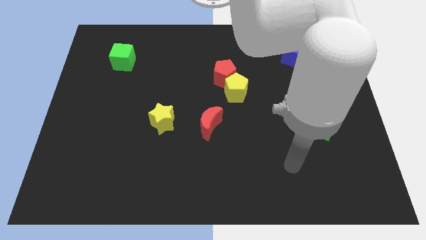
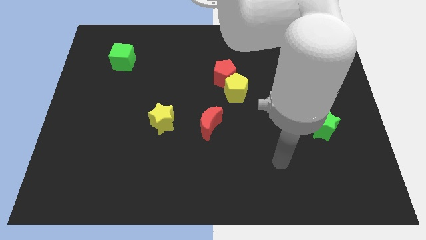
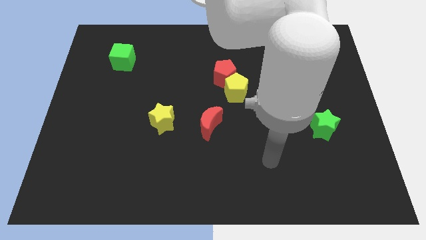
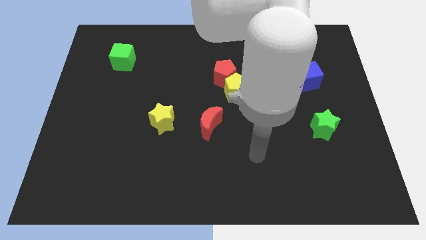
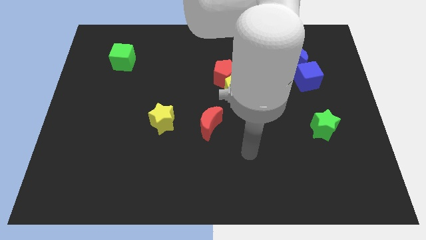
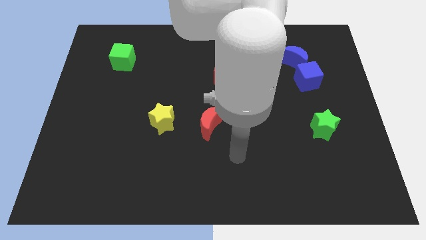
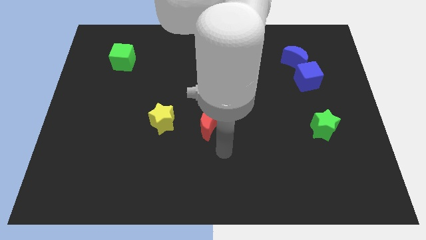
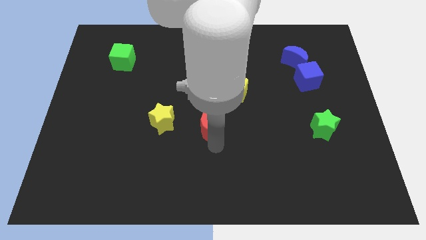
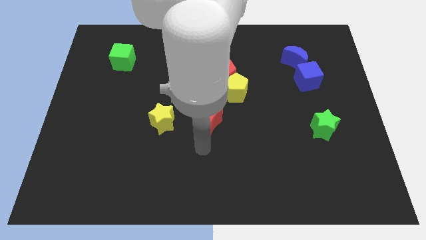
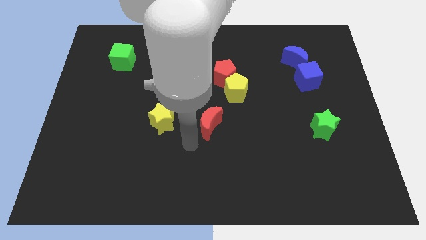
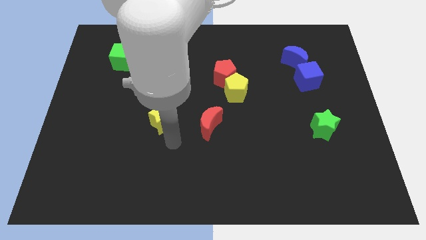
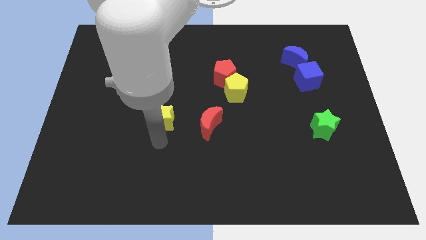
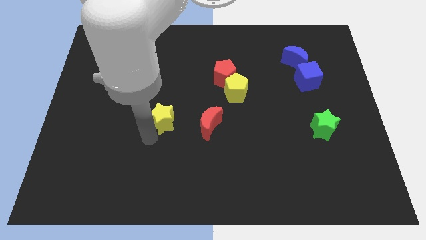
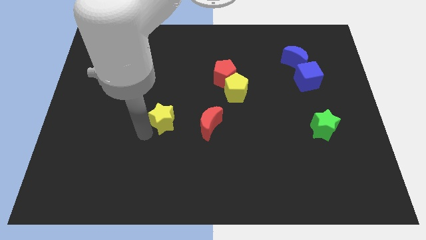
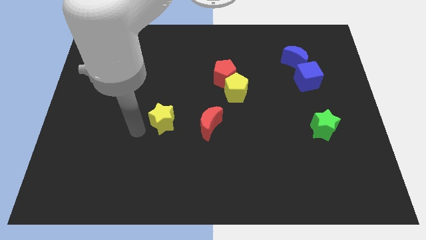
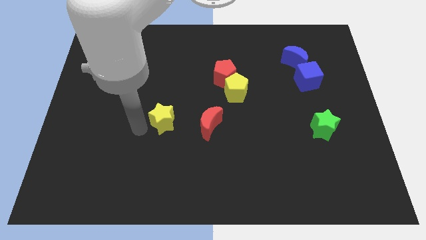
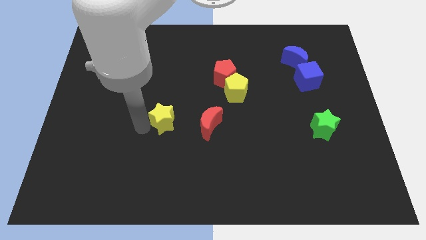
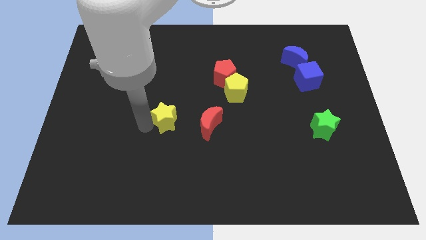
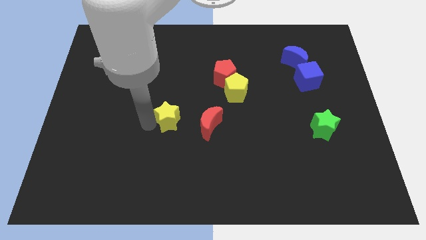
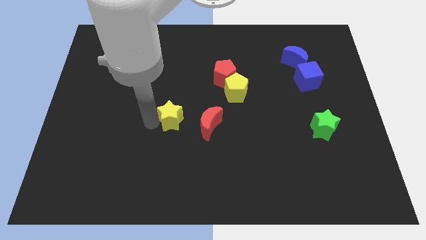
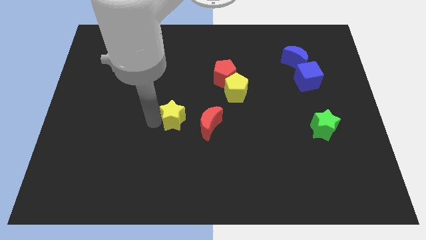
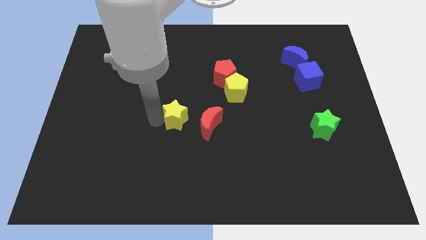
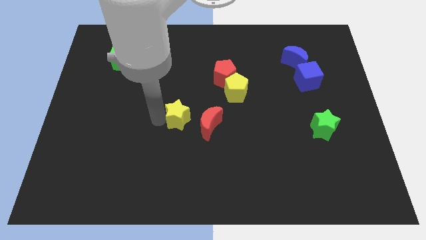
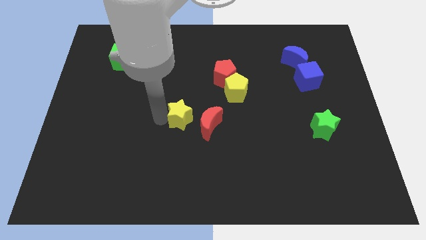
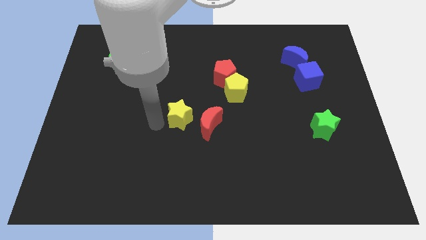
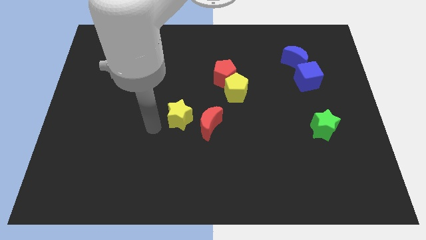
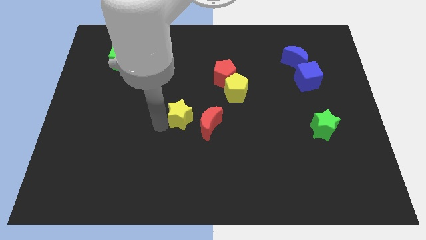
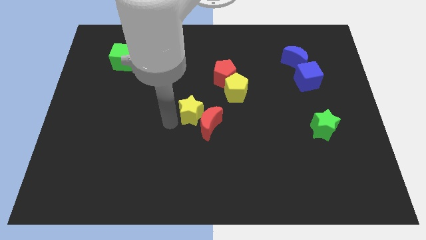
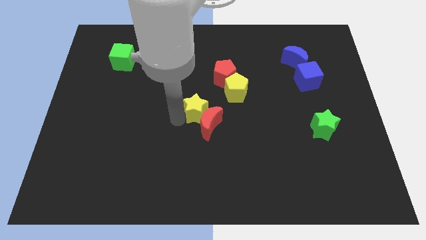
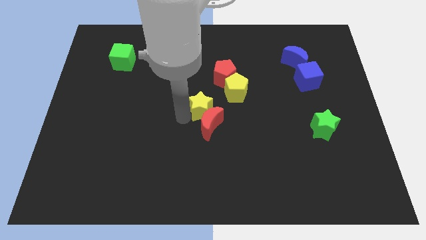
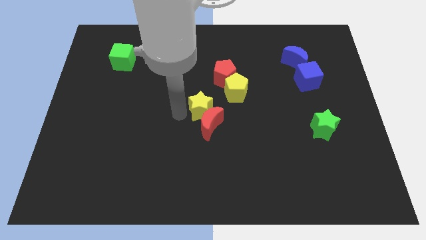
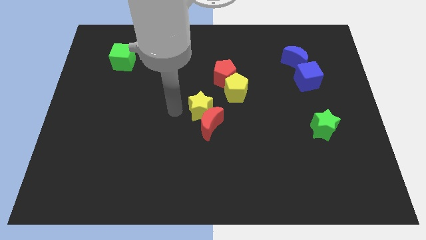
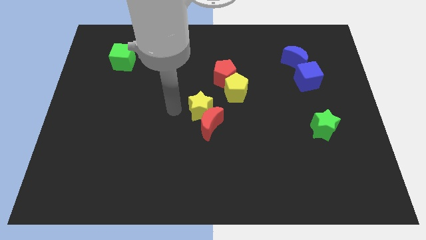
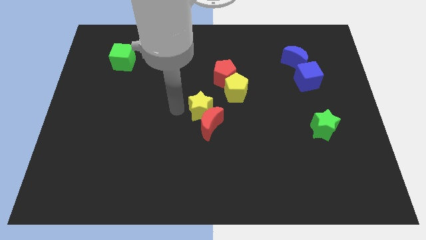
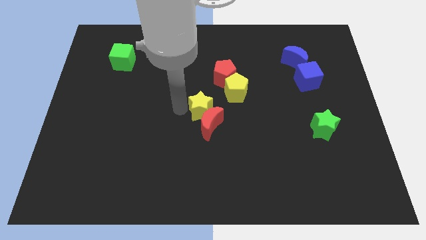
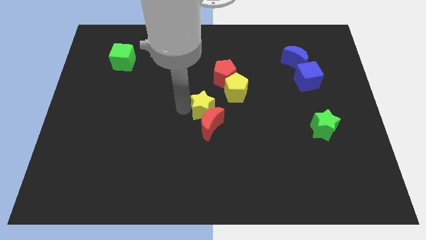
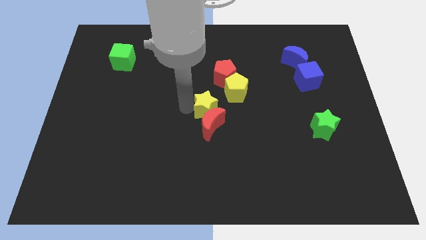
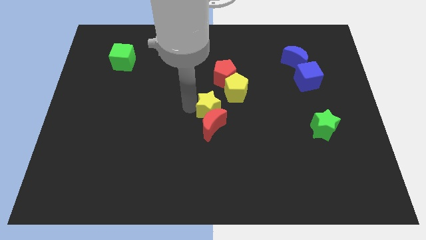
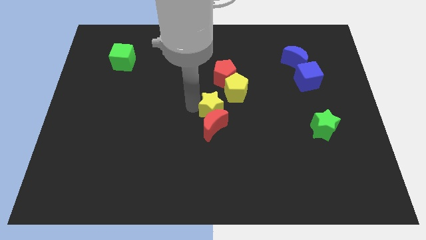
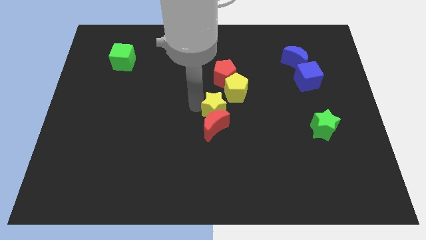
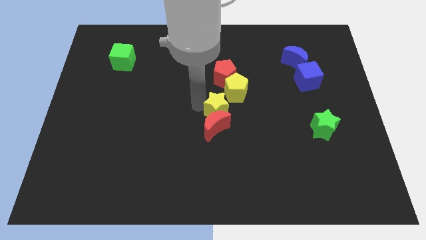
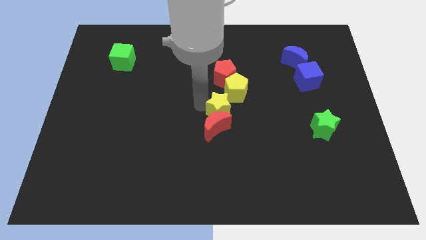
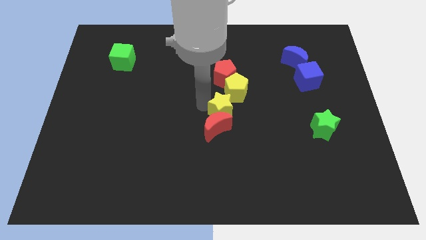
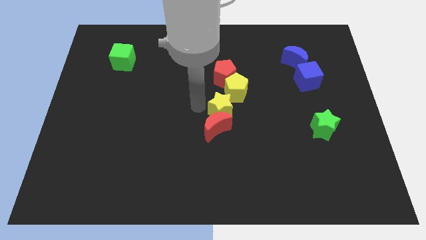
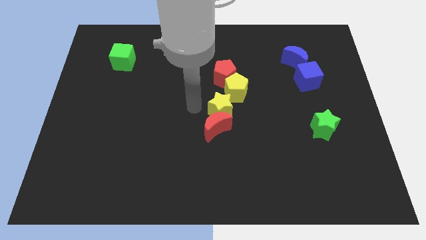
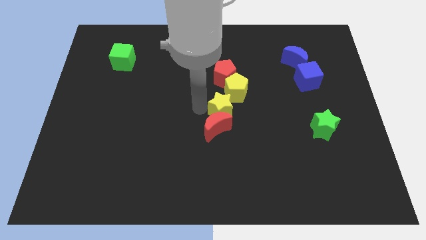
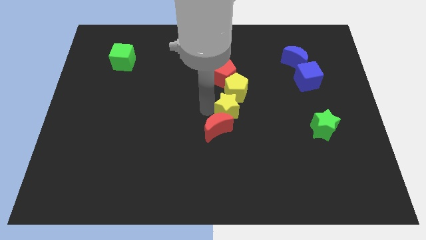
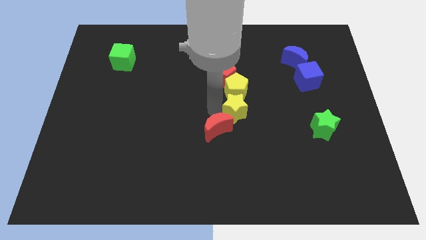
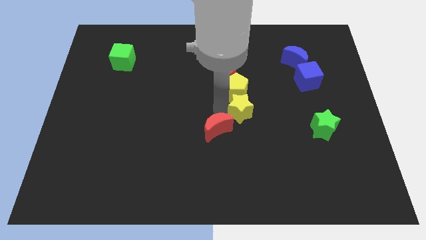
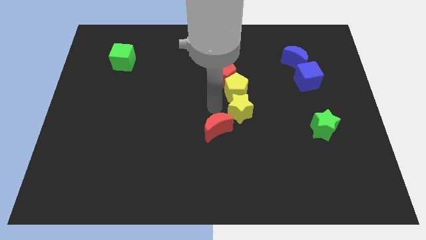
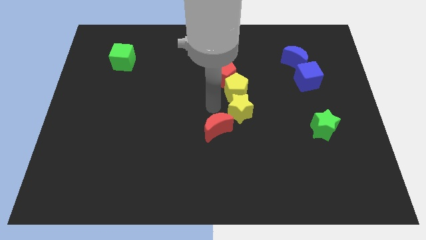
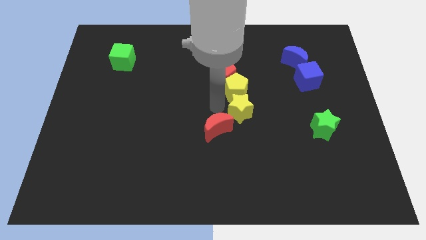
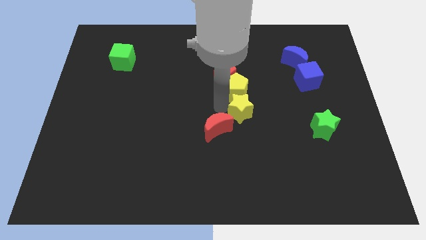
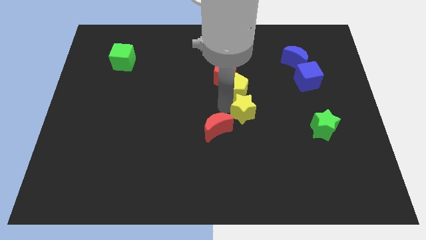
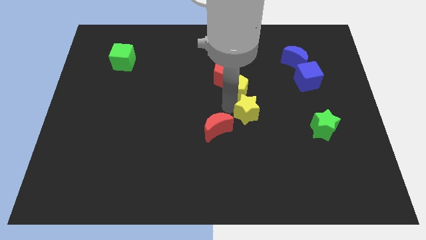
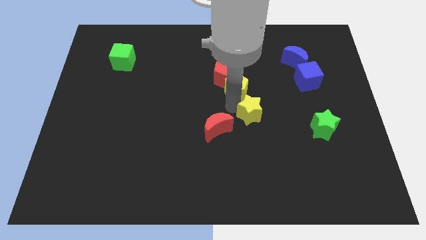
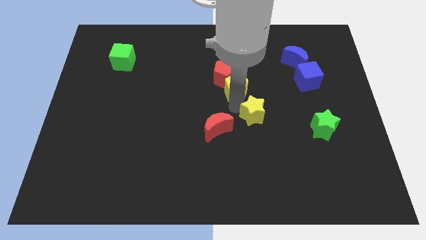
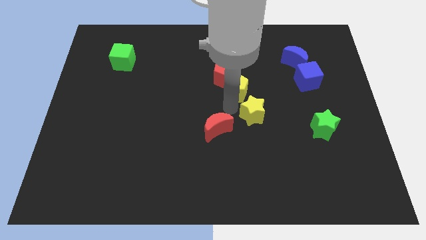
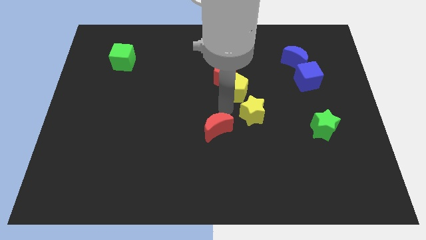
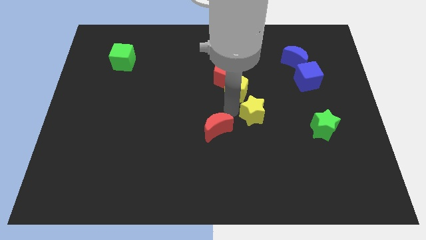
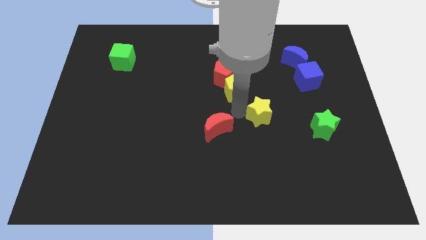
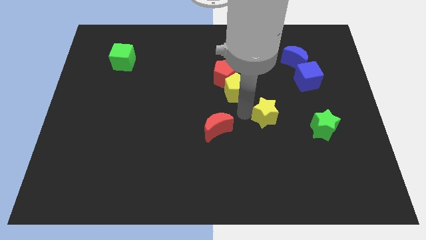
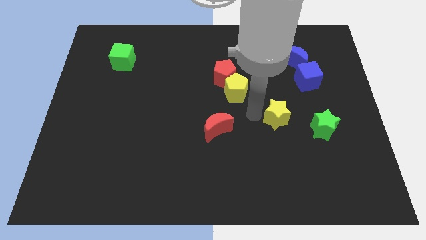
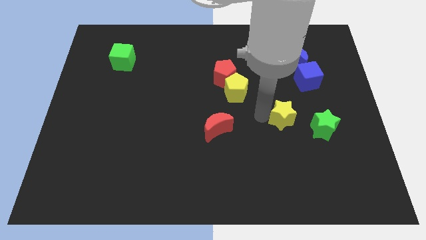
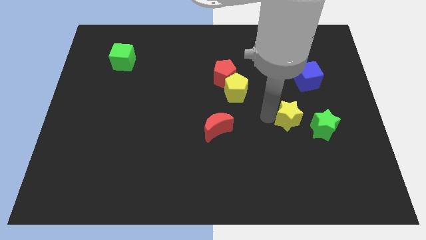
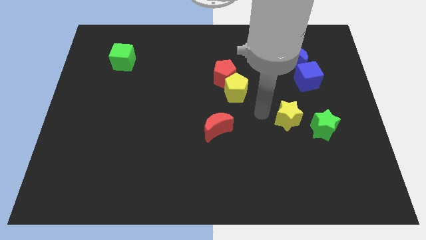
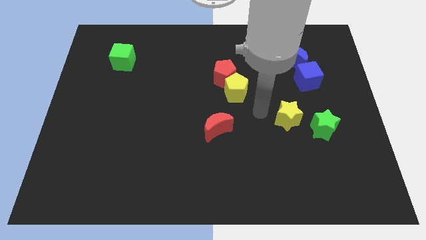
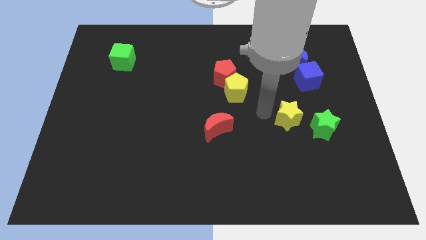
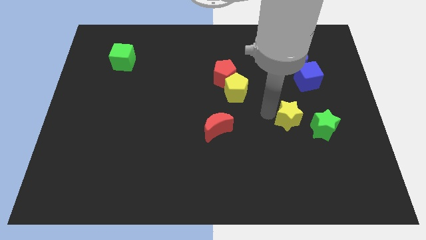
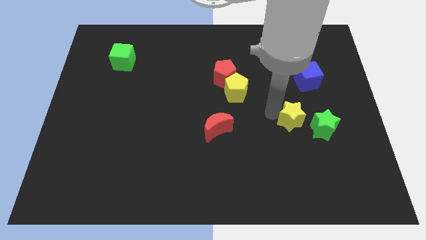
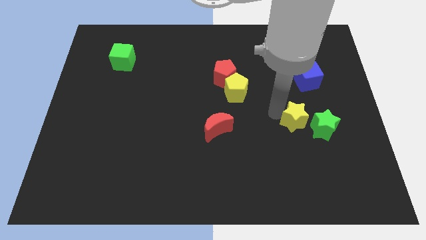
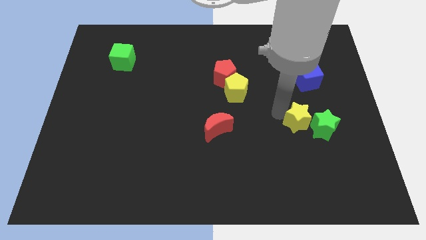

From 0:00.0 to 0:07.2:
push the yellow star to the green star

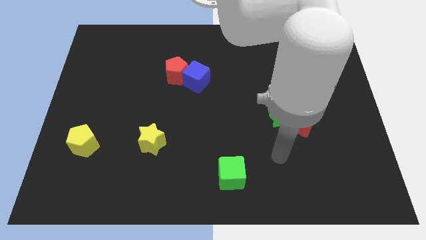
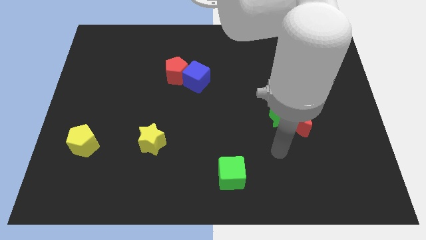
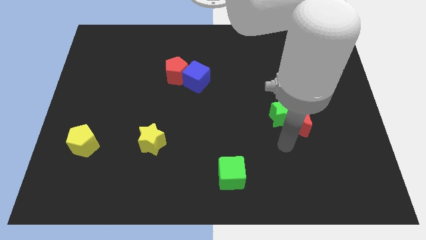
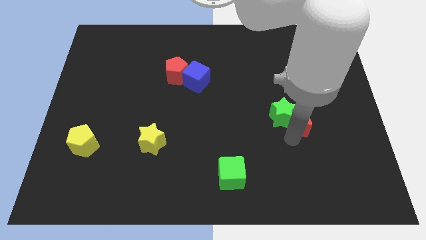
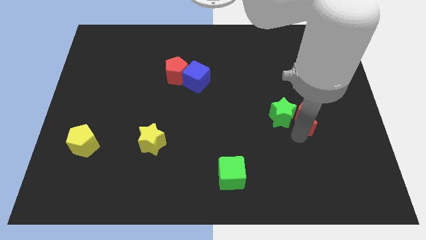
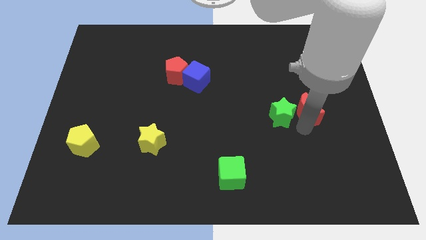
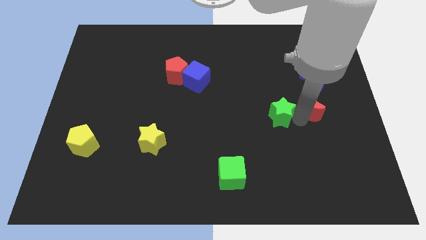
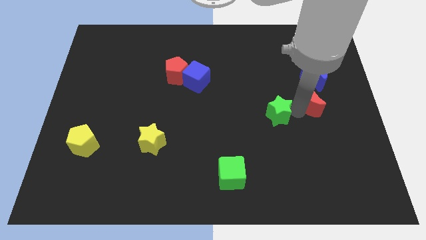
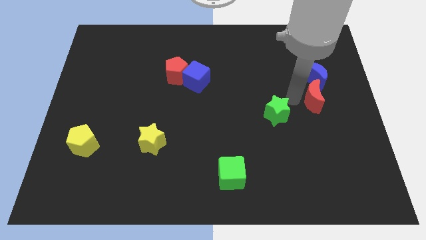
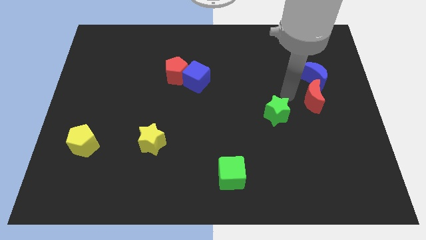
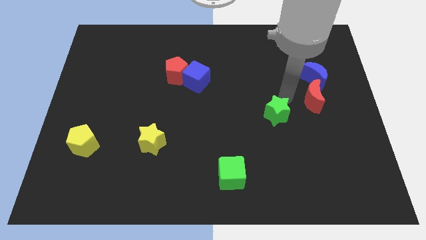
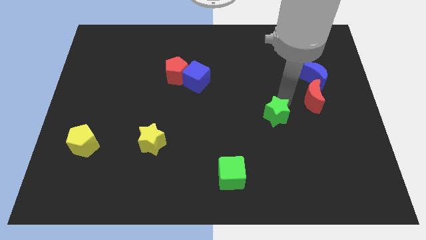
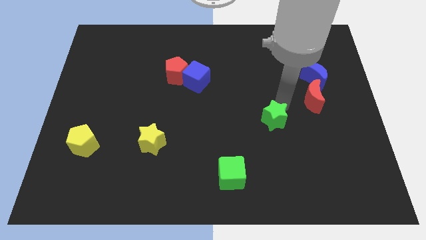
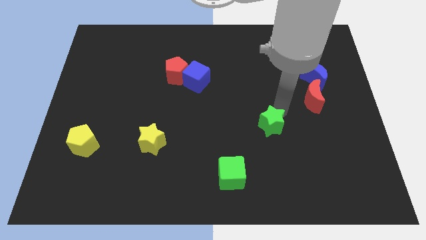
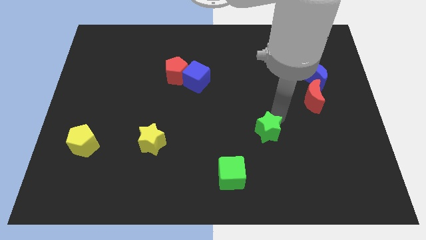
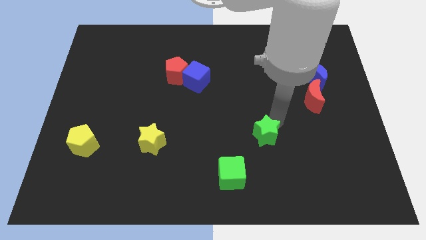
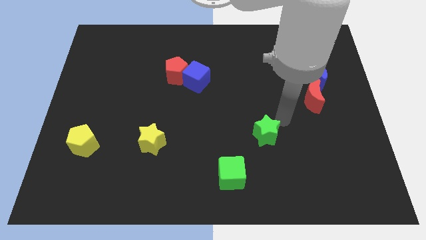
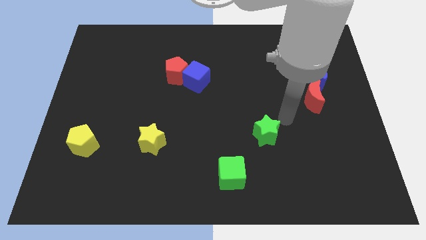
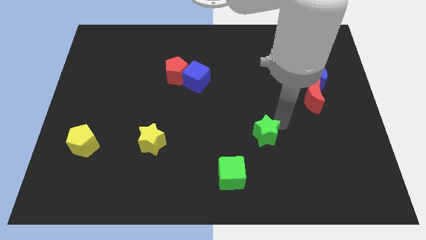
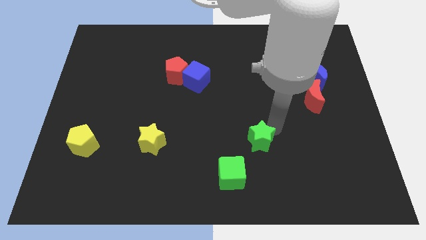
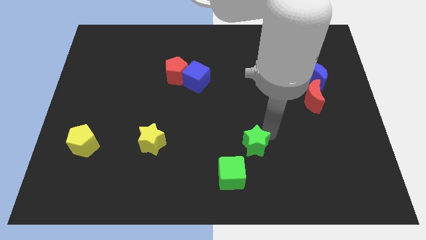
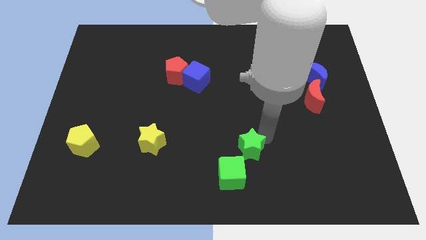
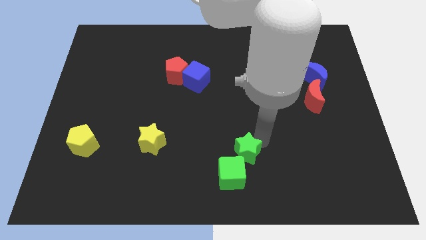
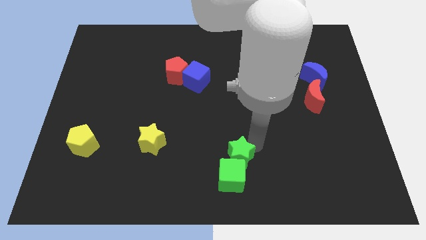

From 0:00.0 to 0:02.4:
push the green star to the green cube
